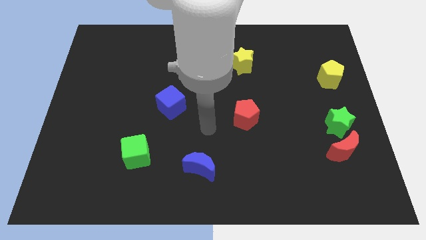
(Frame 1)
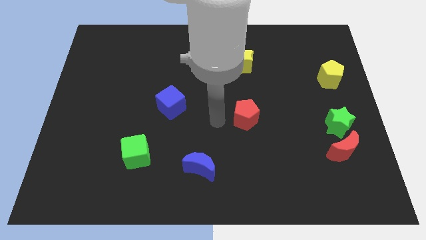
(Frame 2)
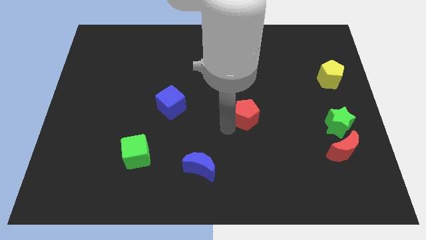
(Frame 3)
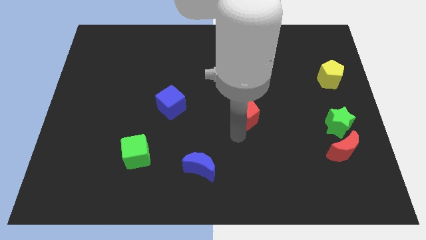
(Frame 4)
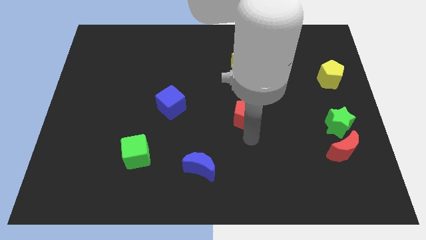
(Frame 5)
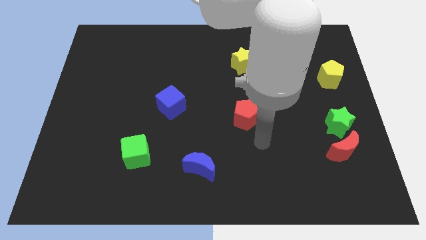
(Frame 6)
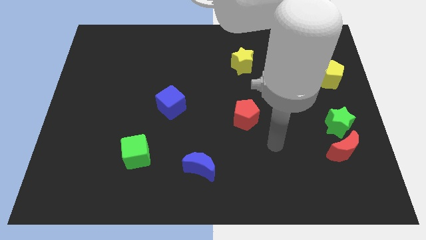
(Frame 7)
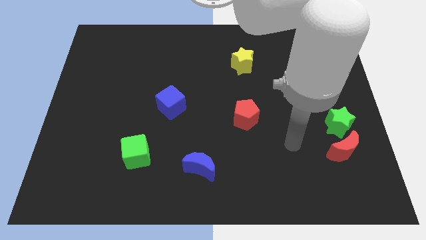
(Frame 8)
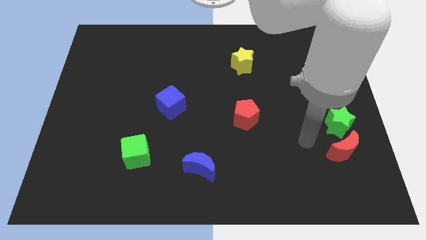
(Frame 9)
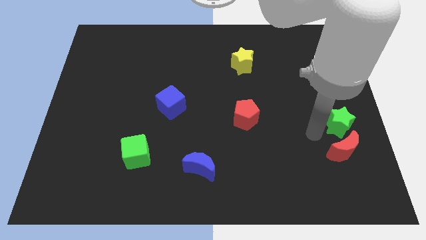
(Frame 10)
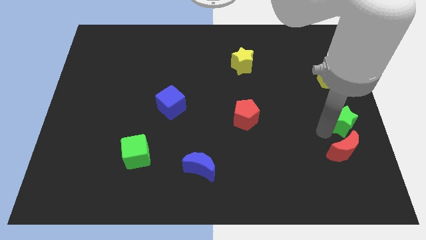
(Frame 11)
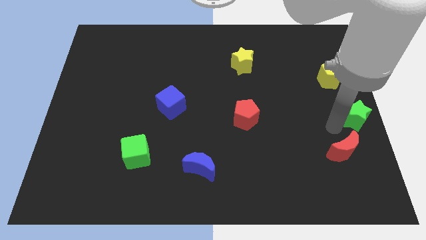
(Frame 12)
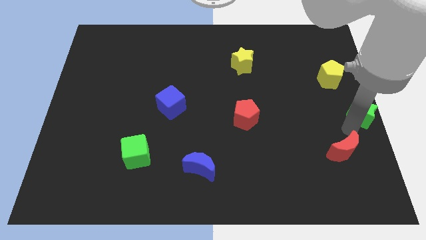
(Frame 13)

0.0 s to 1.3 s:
pull the red moon apart from the green star

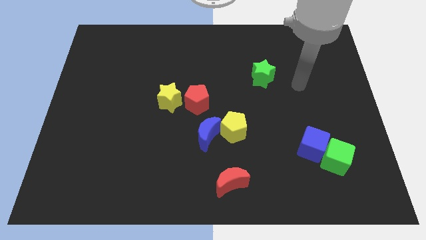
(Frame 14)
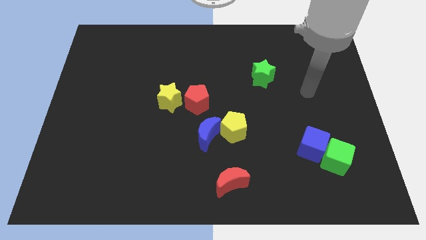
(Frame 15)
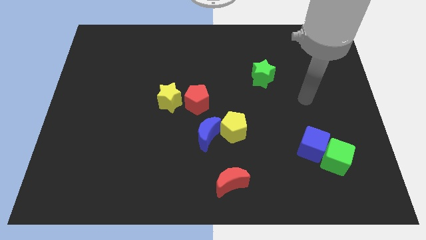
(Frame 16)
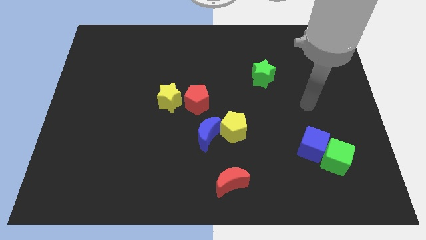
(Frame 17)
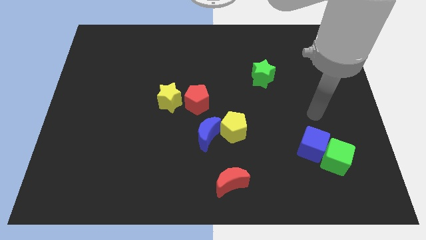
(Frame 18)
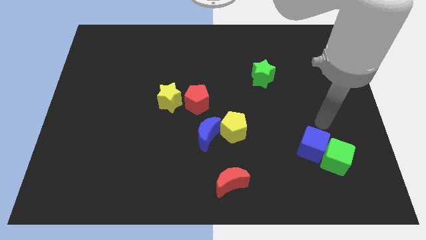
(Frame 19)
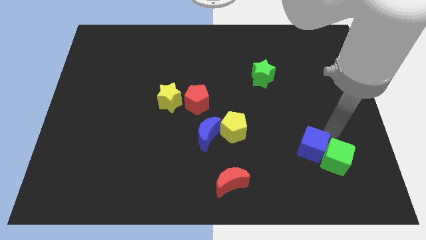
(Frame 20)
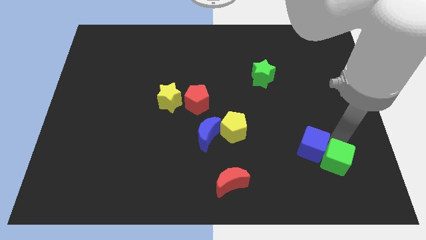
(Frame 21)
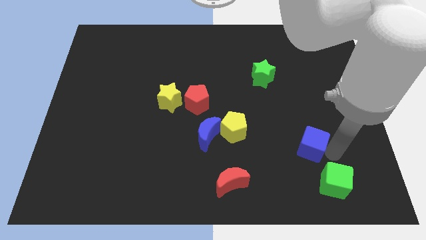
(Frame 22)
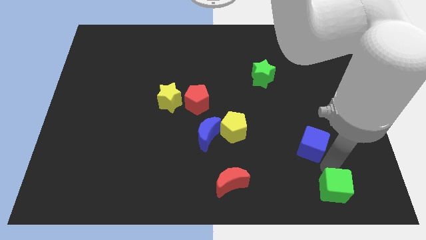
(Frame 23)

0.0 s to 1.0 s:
pull the blue cube apart from the green cube

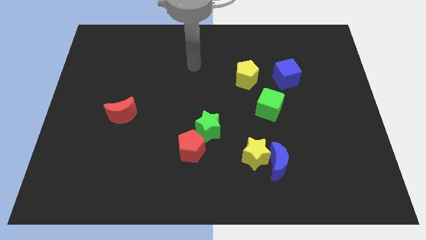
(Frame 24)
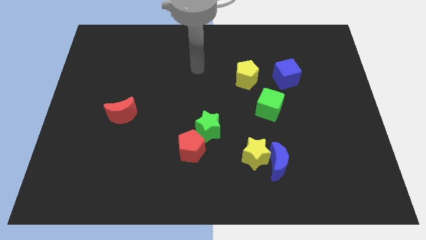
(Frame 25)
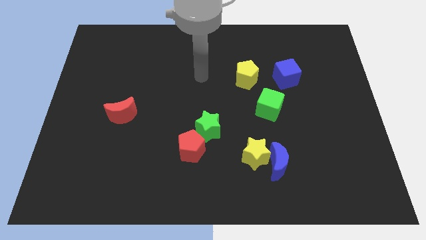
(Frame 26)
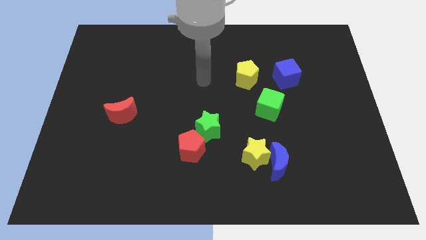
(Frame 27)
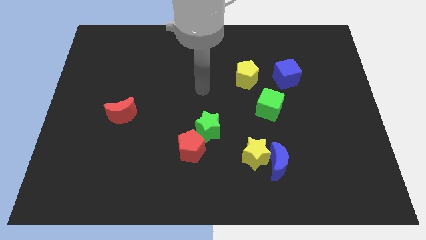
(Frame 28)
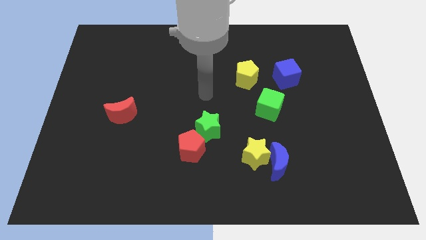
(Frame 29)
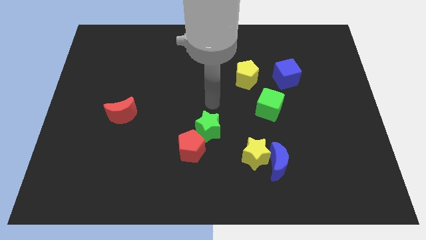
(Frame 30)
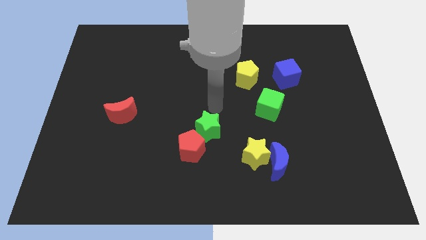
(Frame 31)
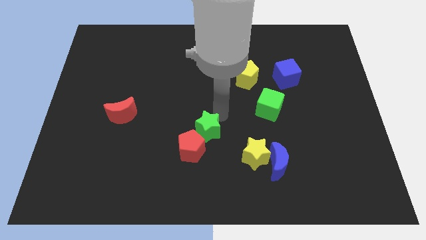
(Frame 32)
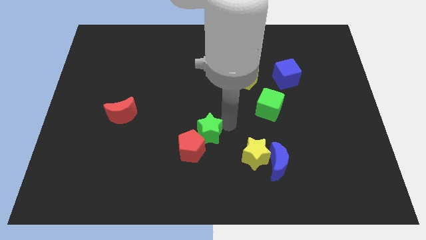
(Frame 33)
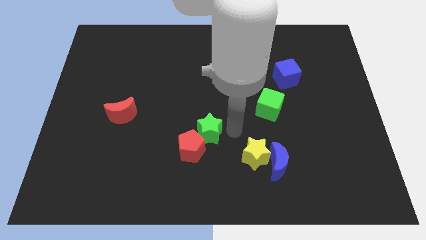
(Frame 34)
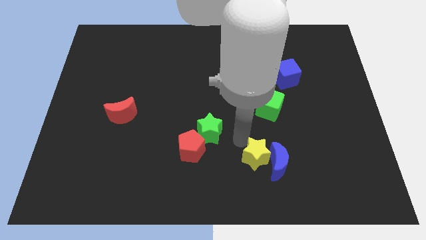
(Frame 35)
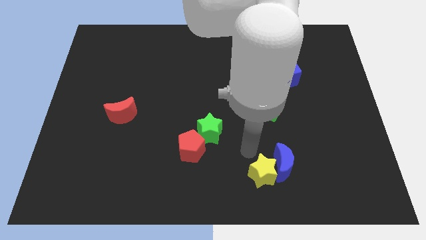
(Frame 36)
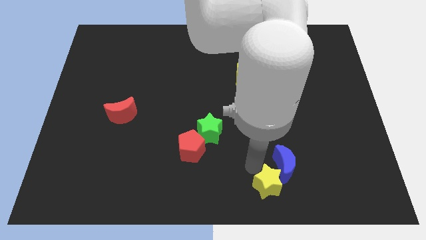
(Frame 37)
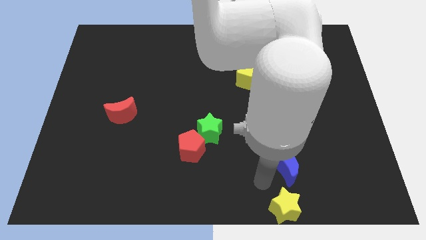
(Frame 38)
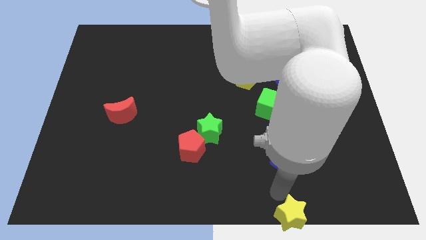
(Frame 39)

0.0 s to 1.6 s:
pull the blue moon apart from the yellow star

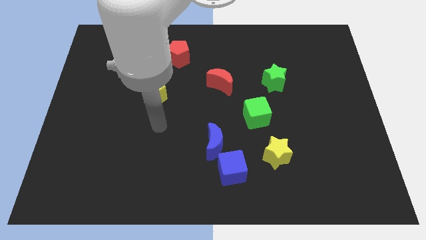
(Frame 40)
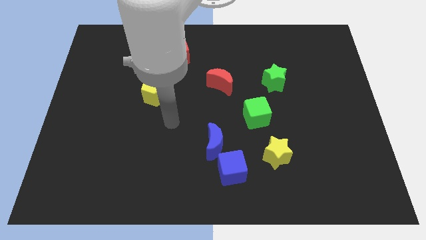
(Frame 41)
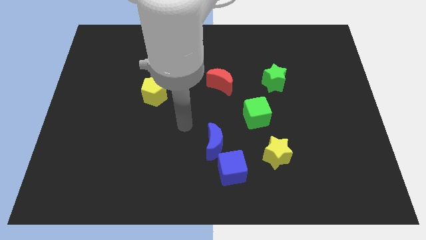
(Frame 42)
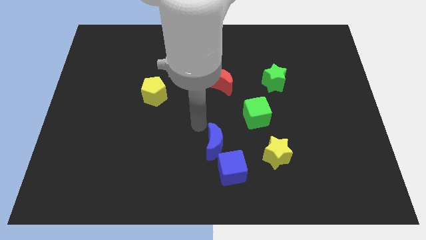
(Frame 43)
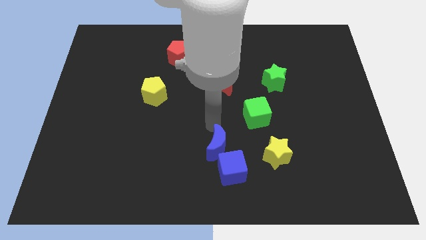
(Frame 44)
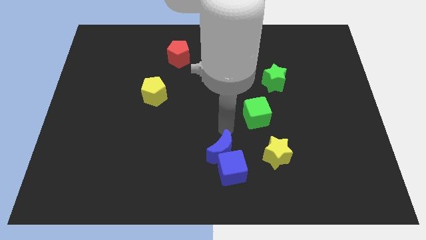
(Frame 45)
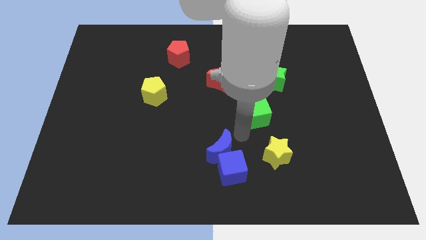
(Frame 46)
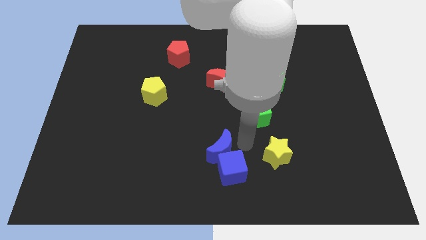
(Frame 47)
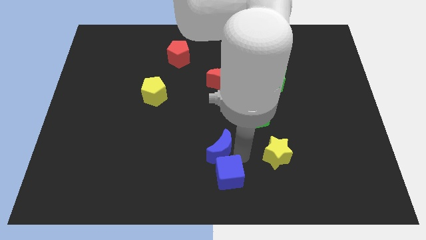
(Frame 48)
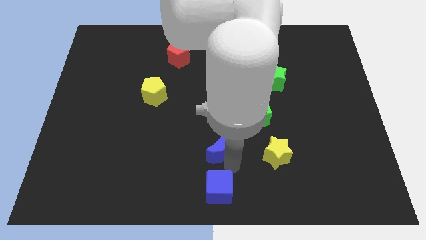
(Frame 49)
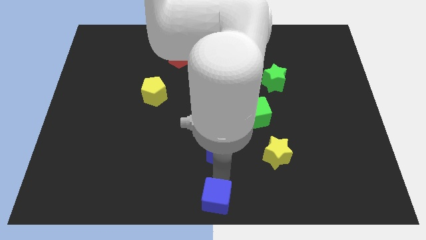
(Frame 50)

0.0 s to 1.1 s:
move the blue moon away from the blue cube

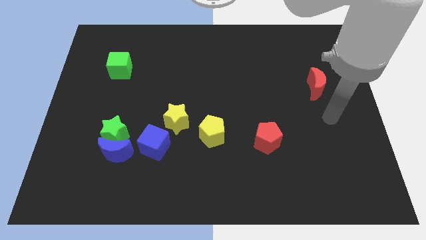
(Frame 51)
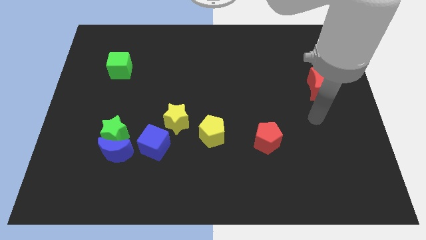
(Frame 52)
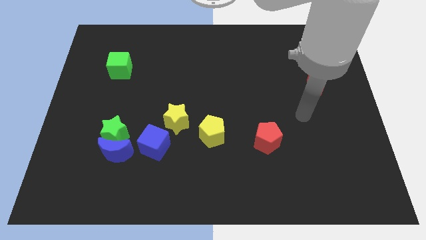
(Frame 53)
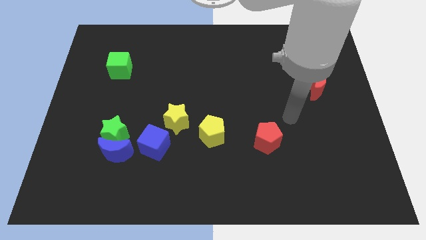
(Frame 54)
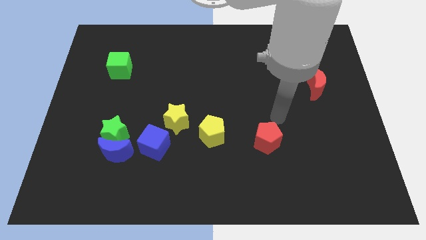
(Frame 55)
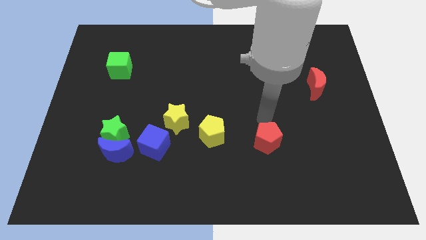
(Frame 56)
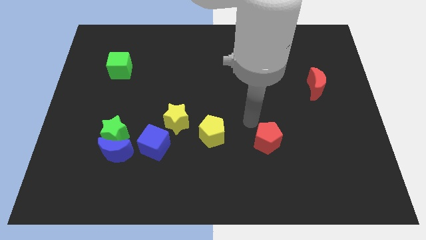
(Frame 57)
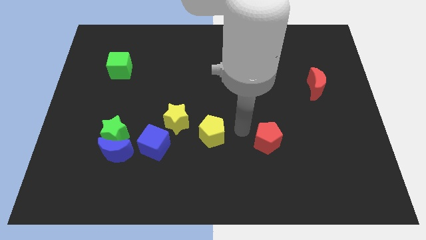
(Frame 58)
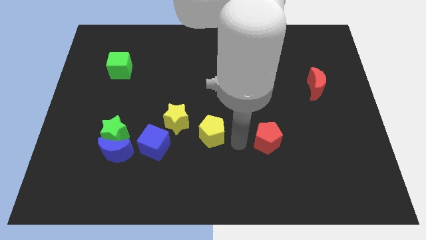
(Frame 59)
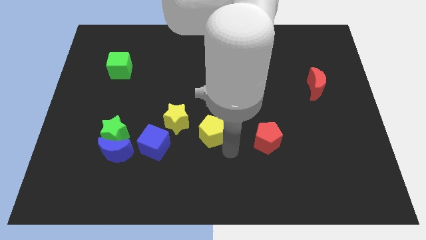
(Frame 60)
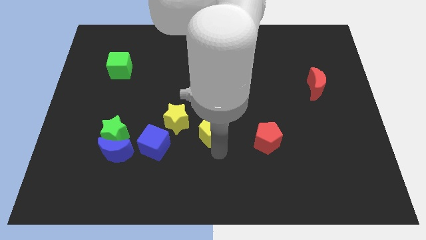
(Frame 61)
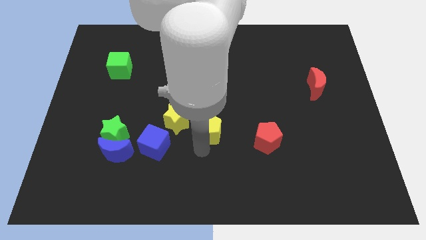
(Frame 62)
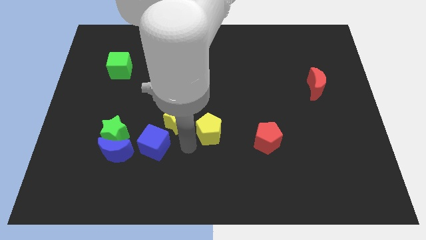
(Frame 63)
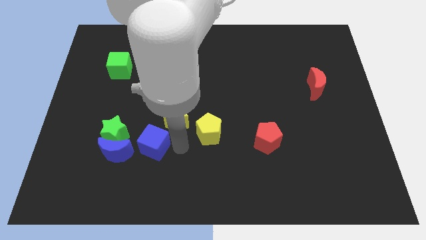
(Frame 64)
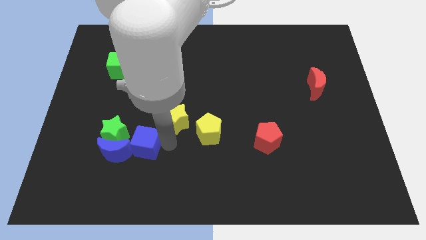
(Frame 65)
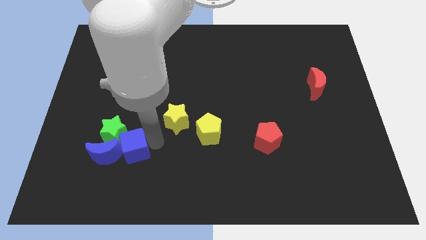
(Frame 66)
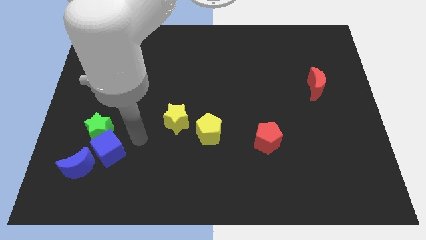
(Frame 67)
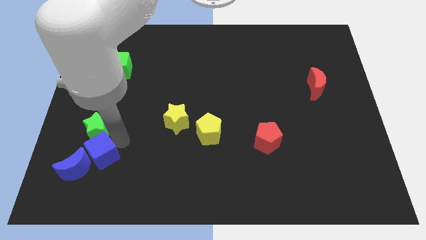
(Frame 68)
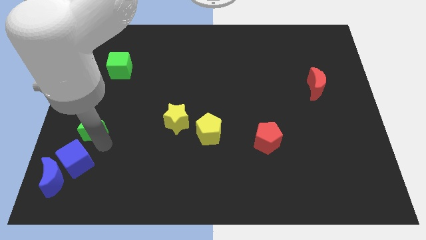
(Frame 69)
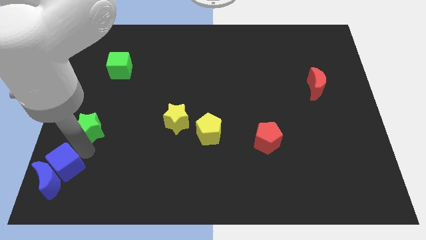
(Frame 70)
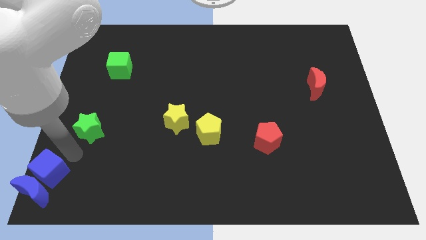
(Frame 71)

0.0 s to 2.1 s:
move the blue moon away from the green star and blue cube

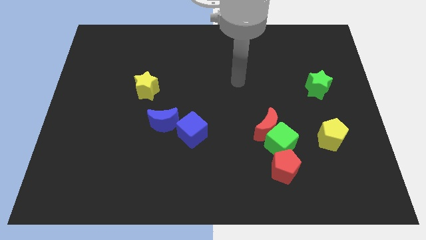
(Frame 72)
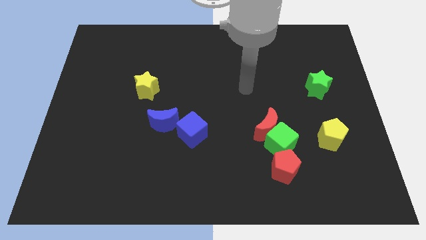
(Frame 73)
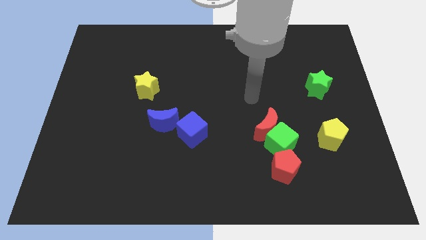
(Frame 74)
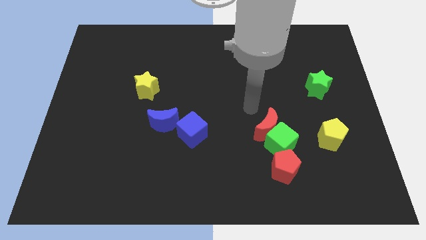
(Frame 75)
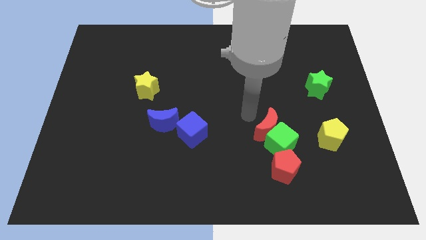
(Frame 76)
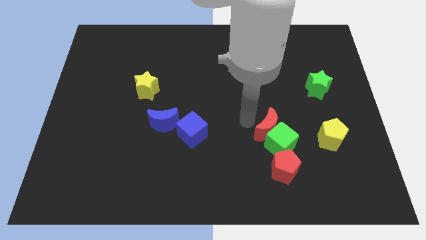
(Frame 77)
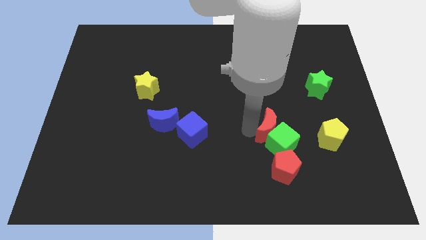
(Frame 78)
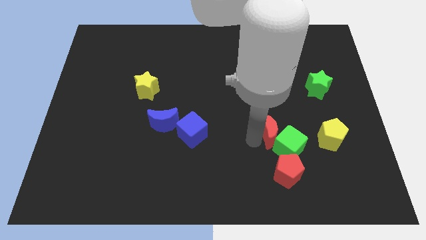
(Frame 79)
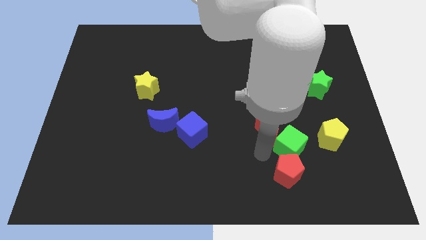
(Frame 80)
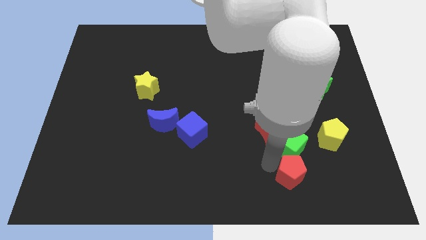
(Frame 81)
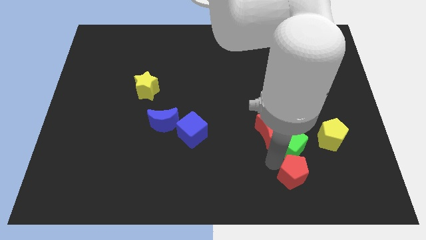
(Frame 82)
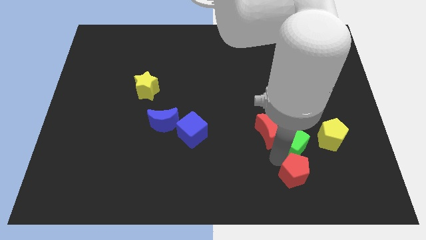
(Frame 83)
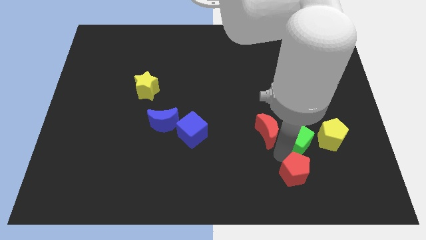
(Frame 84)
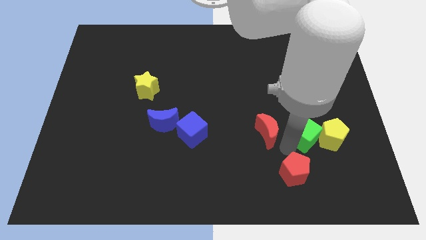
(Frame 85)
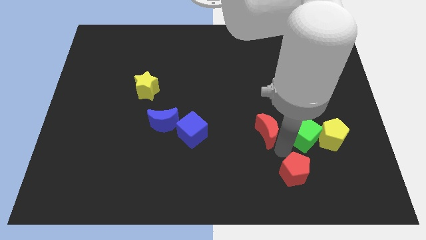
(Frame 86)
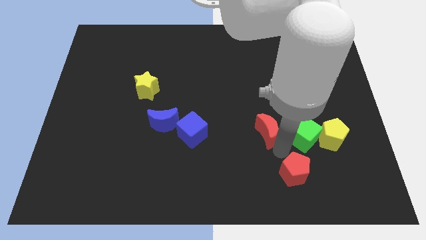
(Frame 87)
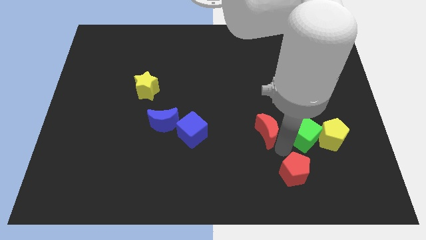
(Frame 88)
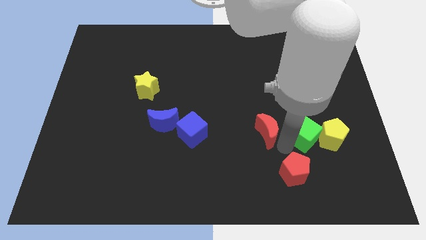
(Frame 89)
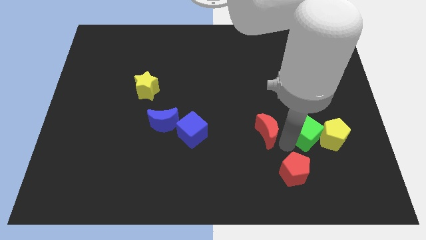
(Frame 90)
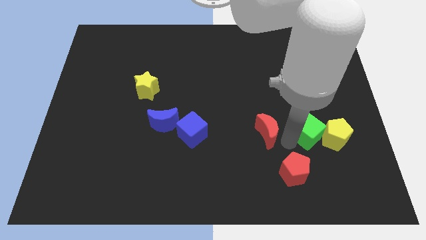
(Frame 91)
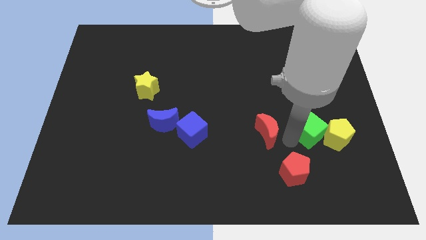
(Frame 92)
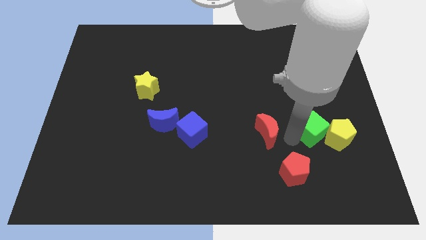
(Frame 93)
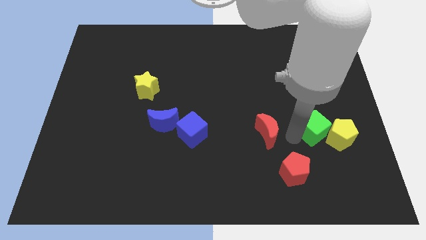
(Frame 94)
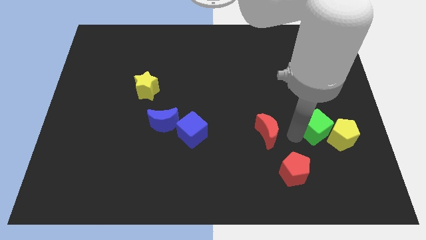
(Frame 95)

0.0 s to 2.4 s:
pull the green cube apart from the red moon and red pentagon
